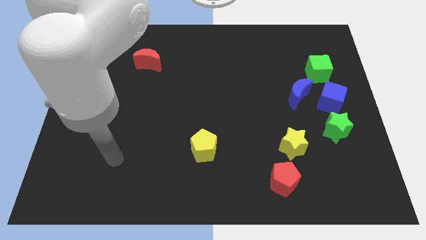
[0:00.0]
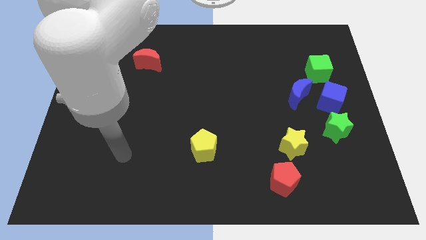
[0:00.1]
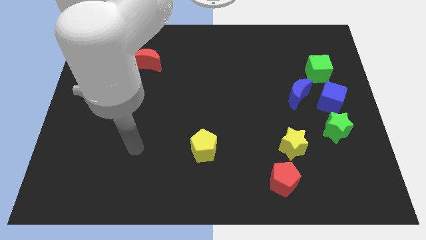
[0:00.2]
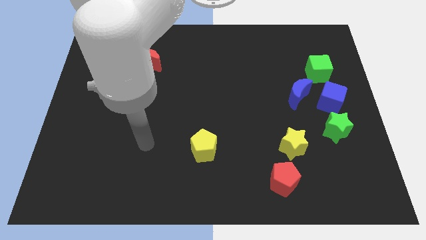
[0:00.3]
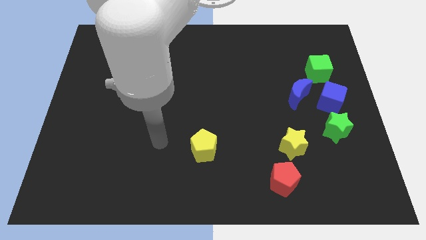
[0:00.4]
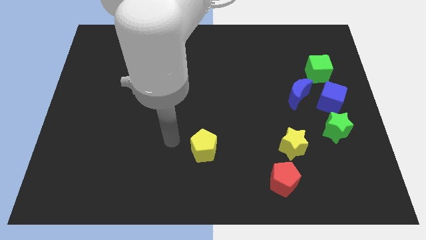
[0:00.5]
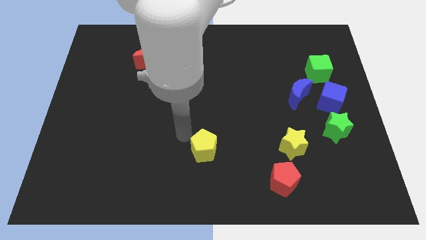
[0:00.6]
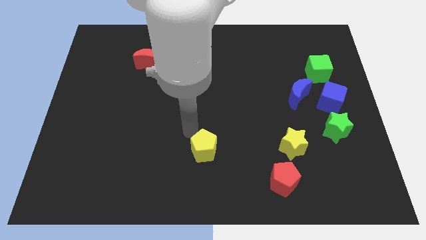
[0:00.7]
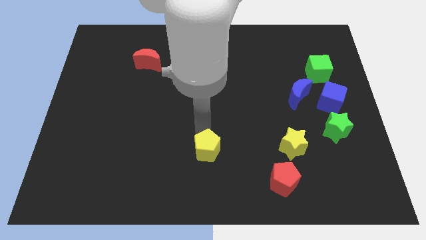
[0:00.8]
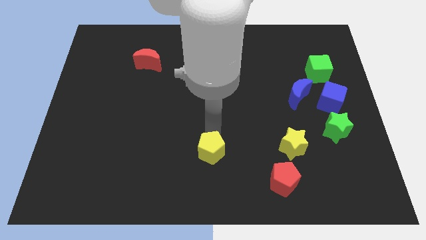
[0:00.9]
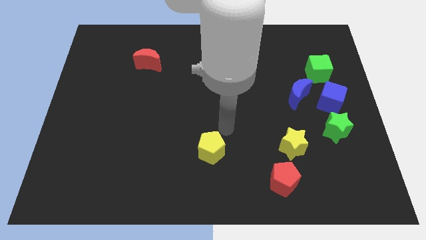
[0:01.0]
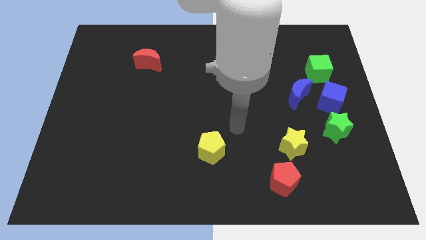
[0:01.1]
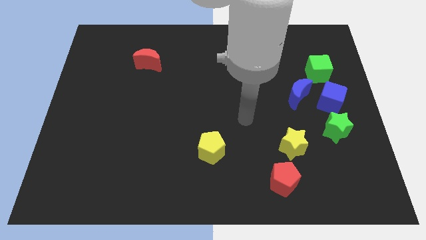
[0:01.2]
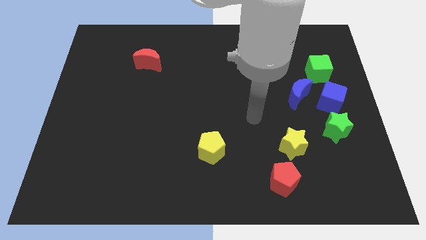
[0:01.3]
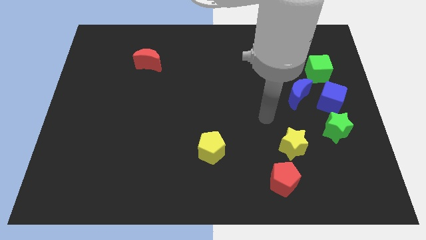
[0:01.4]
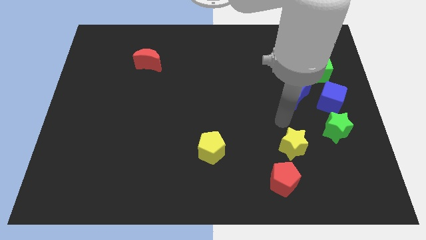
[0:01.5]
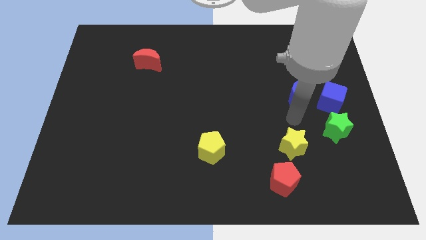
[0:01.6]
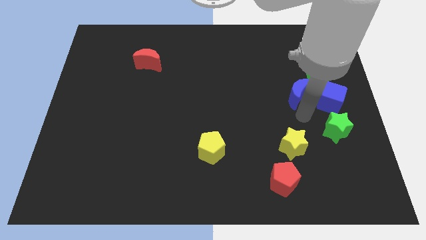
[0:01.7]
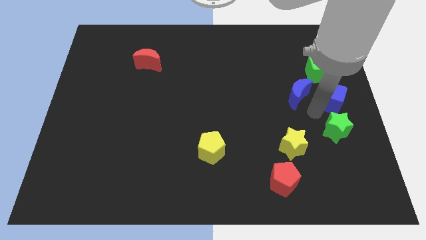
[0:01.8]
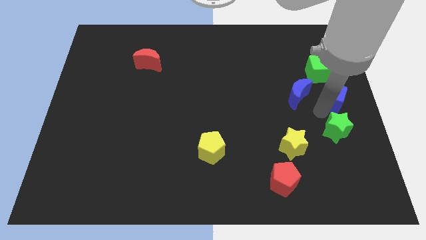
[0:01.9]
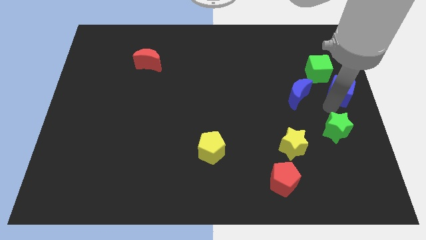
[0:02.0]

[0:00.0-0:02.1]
pull the green star apart from the blue cube

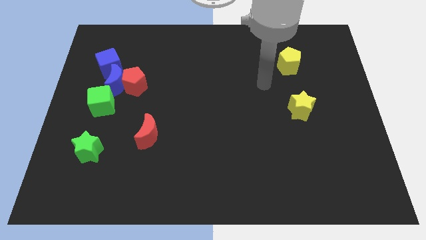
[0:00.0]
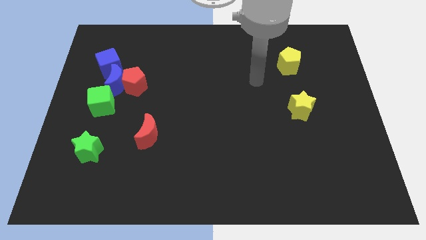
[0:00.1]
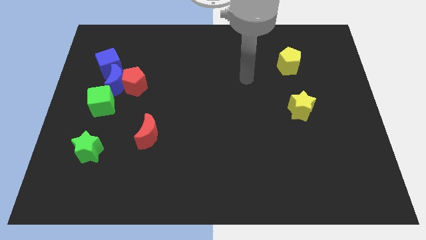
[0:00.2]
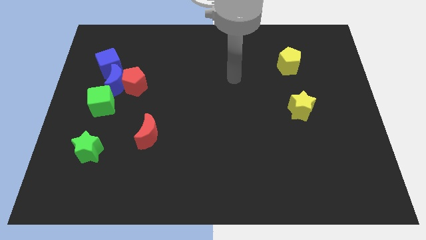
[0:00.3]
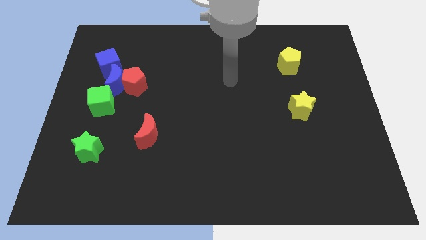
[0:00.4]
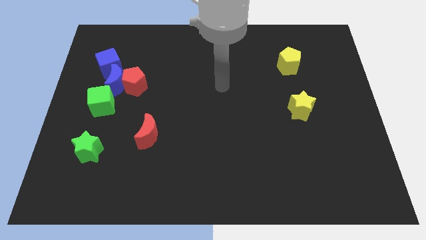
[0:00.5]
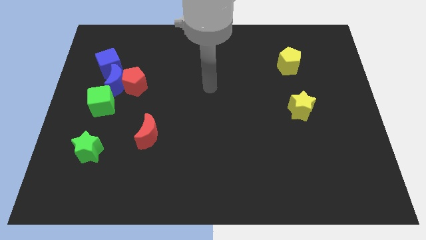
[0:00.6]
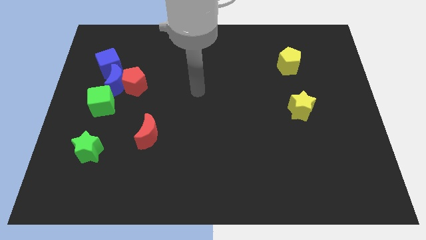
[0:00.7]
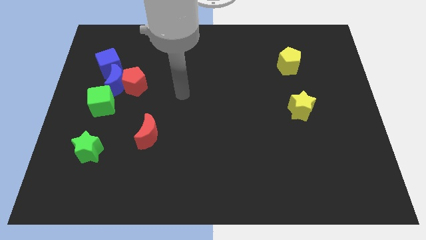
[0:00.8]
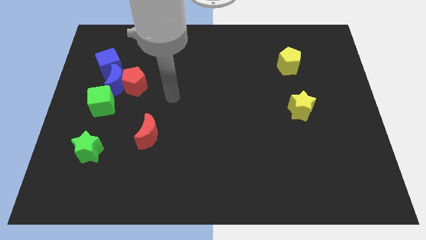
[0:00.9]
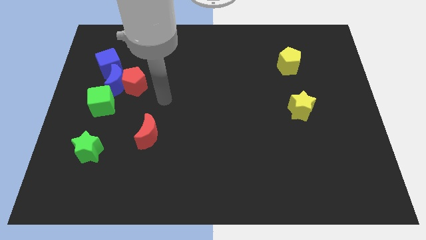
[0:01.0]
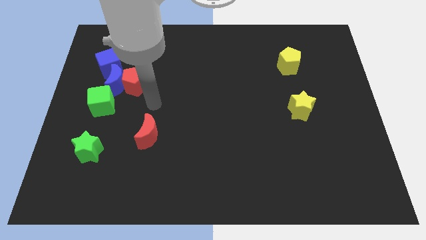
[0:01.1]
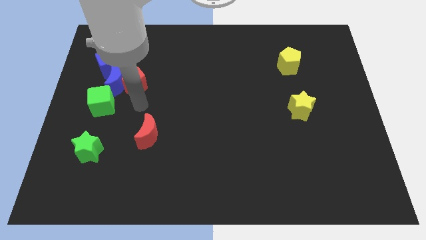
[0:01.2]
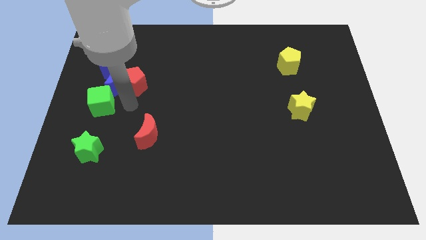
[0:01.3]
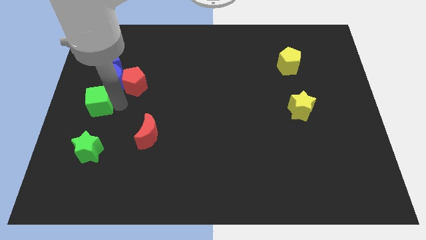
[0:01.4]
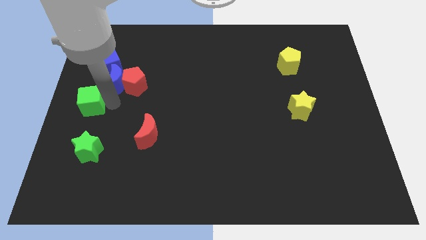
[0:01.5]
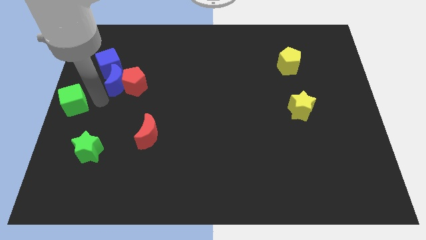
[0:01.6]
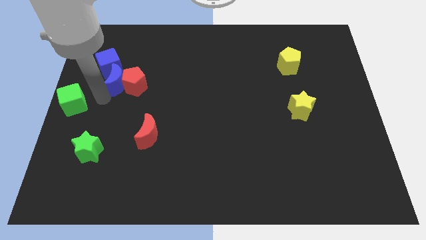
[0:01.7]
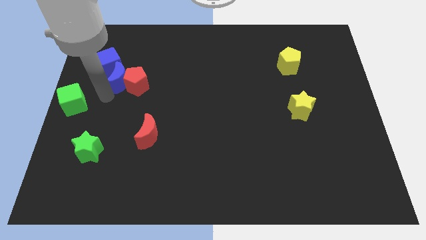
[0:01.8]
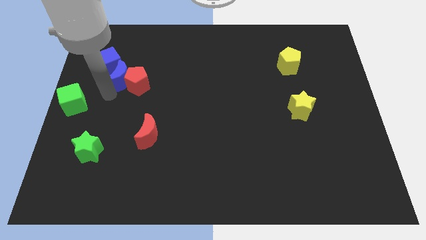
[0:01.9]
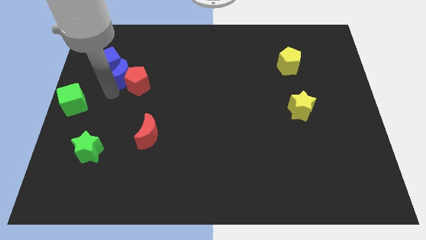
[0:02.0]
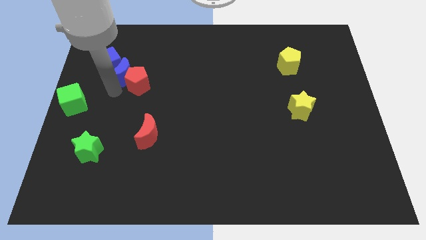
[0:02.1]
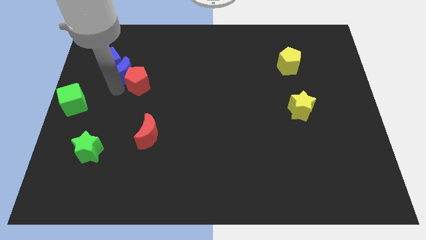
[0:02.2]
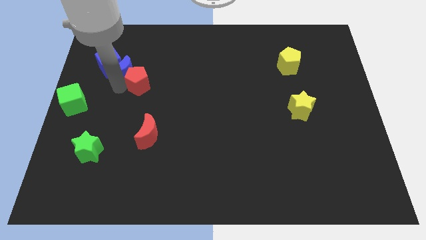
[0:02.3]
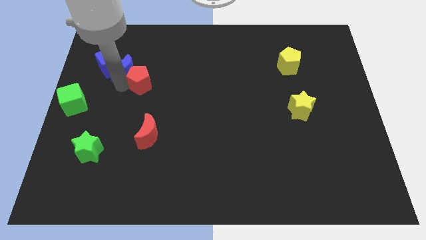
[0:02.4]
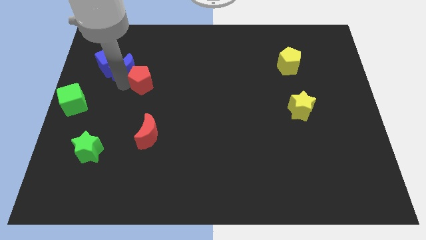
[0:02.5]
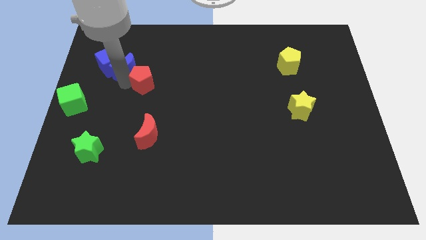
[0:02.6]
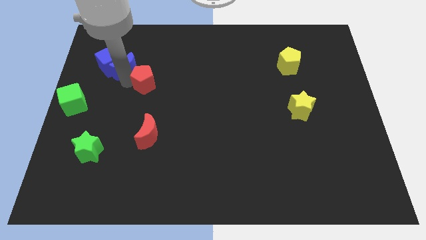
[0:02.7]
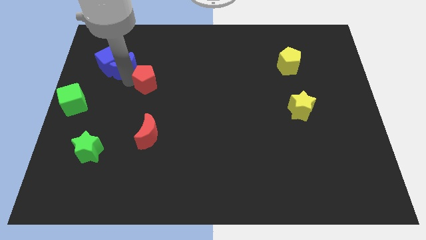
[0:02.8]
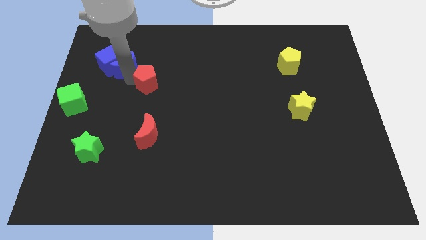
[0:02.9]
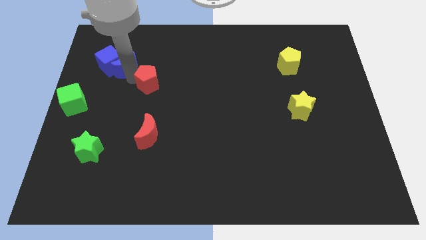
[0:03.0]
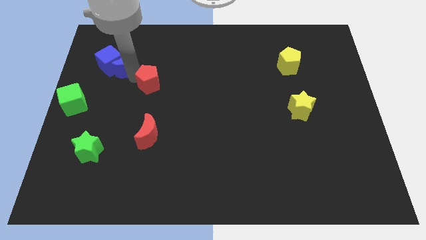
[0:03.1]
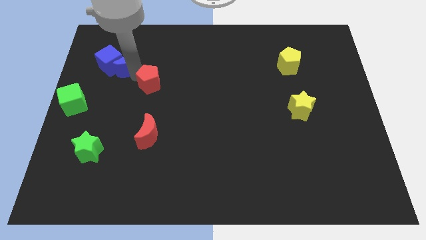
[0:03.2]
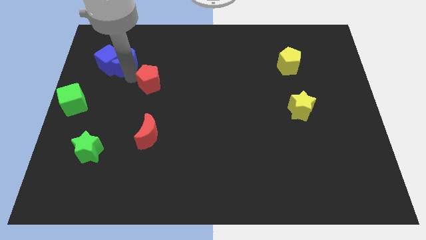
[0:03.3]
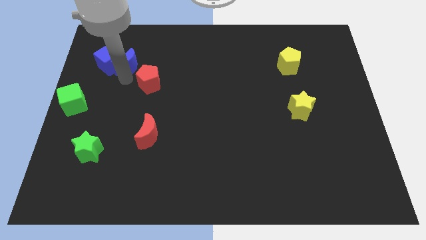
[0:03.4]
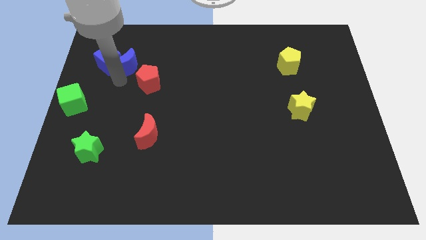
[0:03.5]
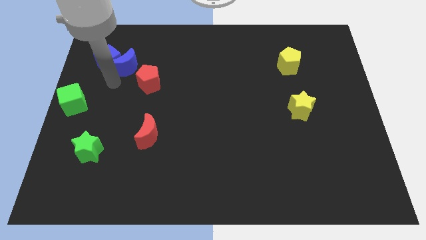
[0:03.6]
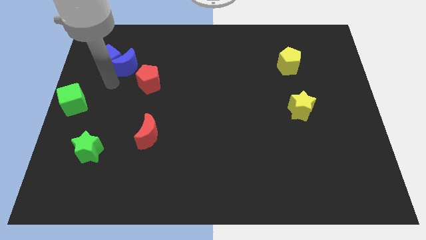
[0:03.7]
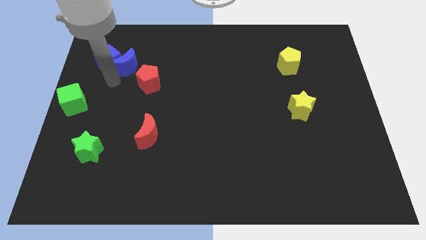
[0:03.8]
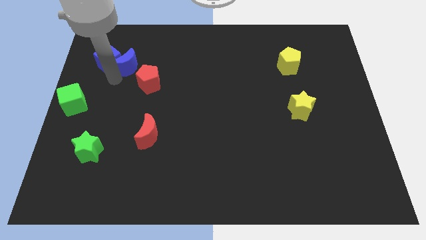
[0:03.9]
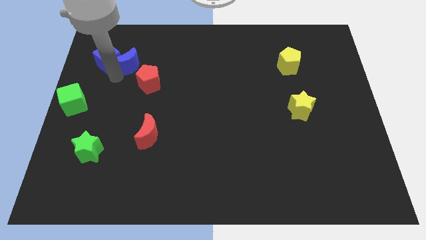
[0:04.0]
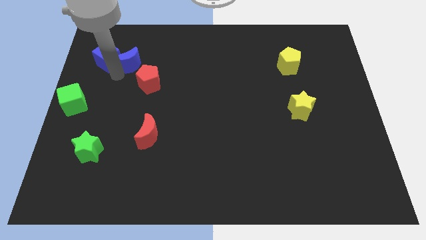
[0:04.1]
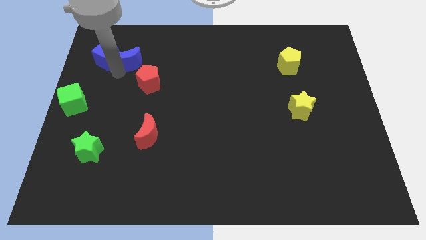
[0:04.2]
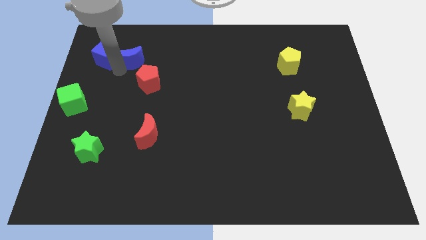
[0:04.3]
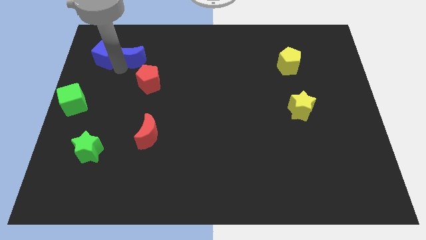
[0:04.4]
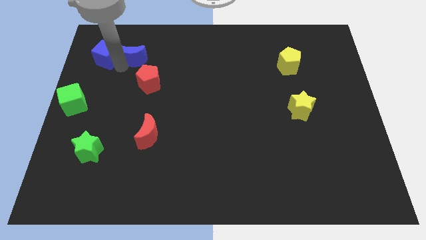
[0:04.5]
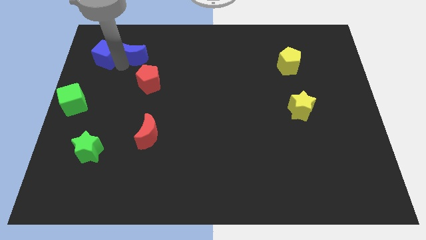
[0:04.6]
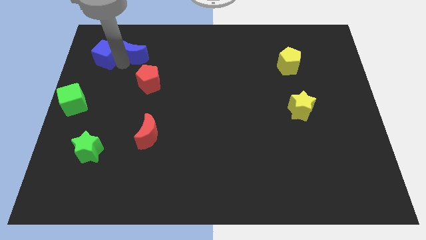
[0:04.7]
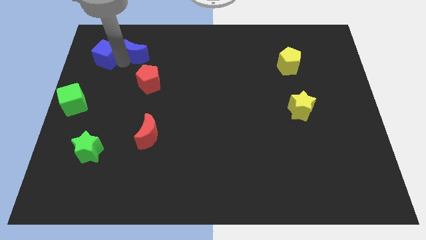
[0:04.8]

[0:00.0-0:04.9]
separate the blue moon from the red pentagon, blue cube, and green cube

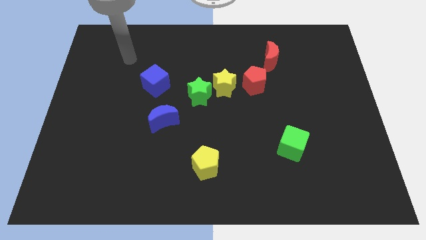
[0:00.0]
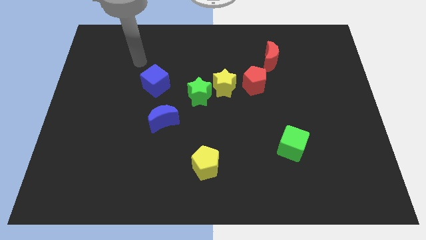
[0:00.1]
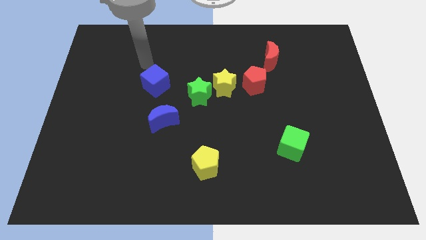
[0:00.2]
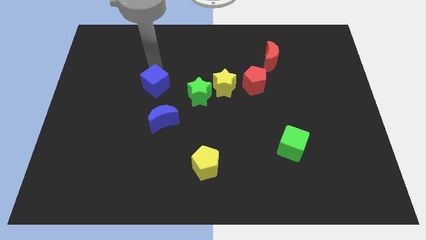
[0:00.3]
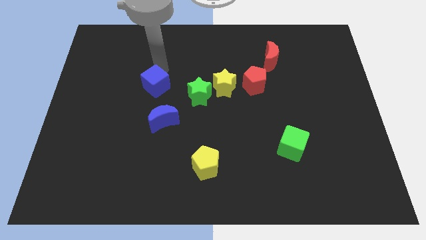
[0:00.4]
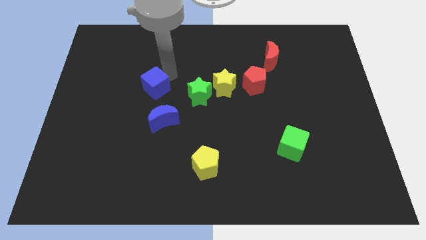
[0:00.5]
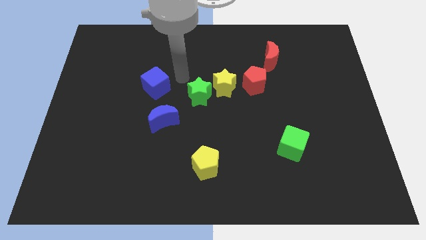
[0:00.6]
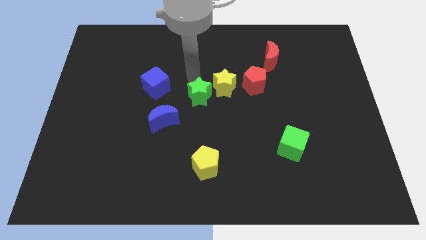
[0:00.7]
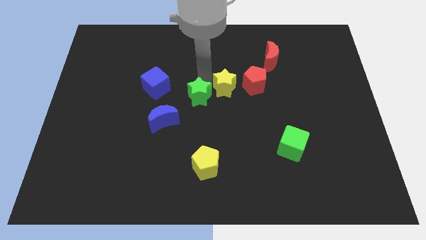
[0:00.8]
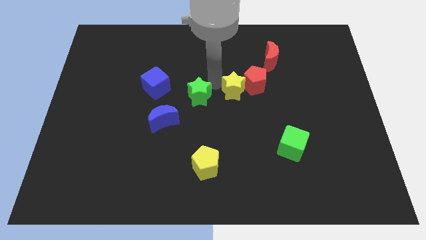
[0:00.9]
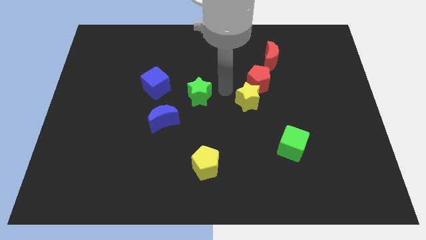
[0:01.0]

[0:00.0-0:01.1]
separate the green star from the yellow star

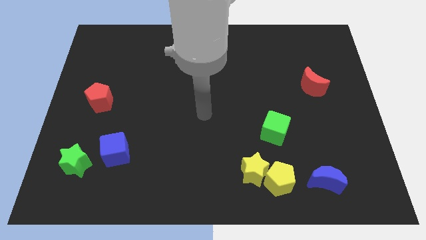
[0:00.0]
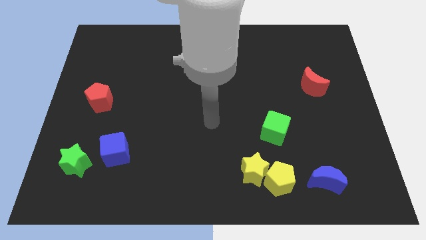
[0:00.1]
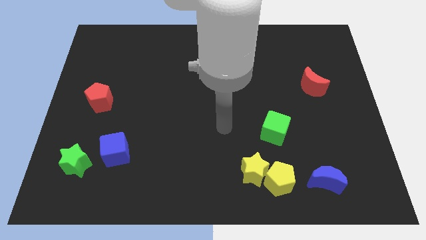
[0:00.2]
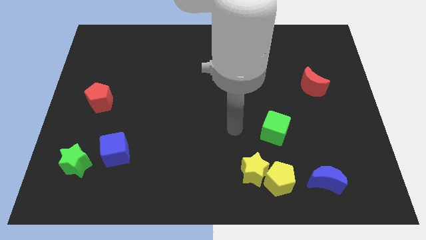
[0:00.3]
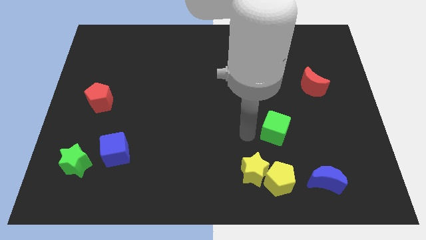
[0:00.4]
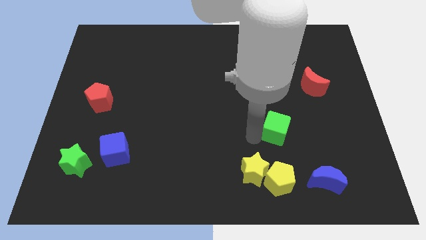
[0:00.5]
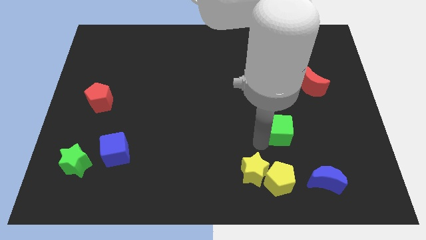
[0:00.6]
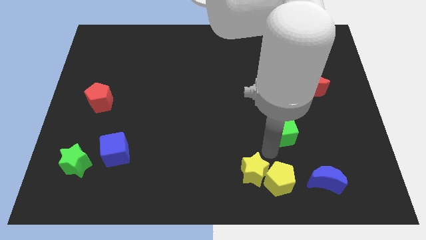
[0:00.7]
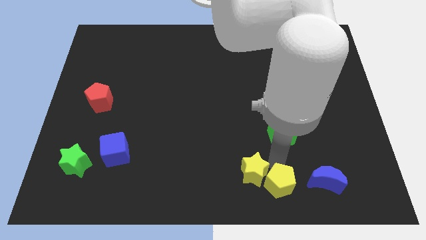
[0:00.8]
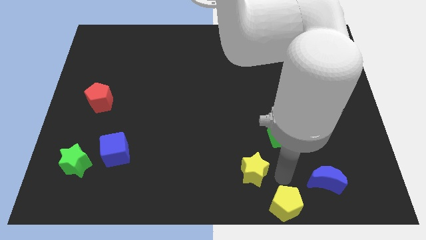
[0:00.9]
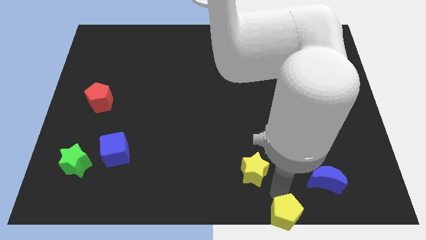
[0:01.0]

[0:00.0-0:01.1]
separate the yellow star from the yellow pentagon

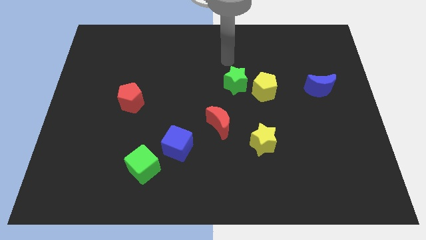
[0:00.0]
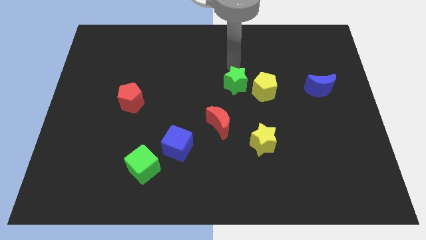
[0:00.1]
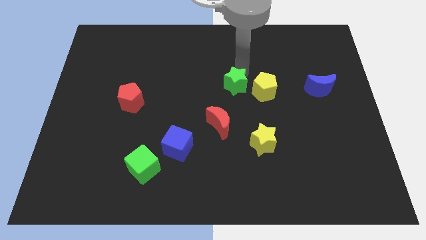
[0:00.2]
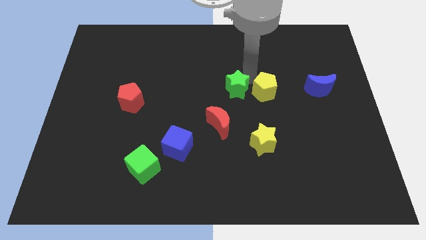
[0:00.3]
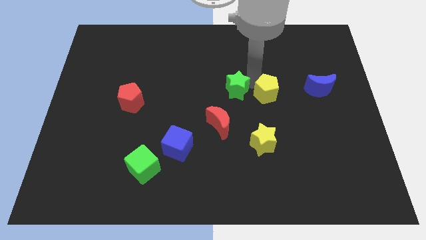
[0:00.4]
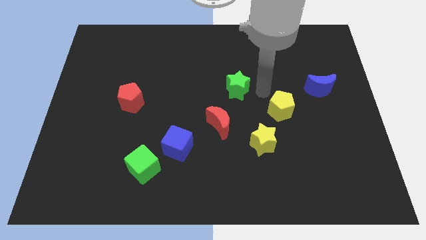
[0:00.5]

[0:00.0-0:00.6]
move the green star away from the yellow pentagon
